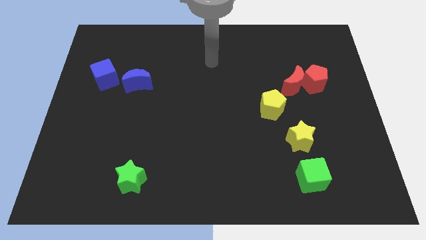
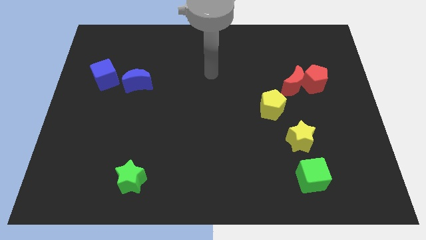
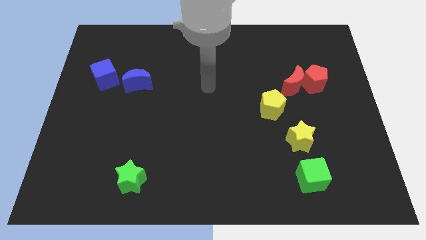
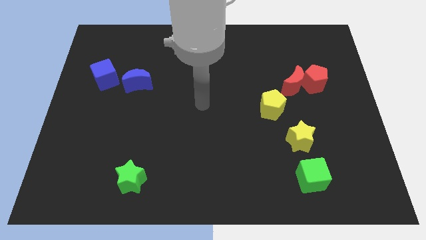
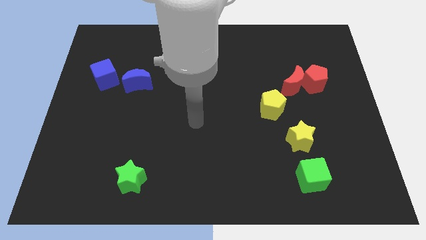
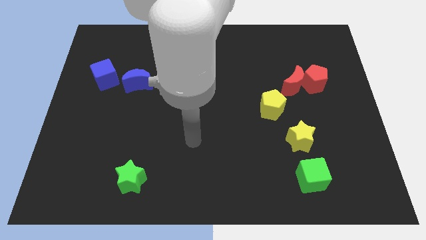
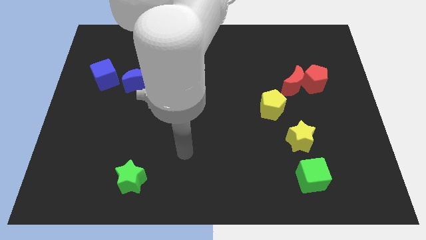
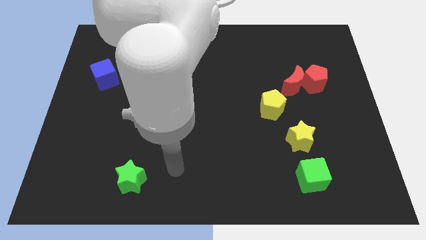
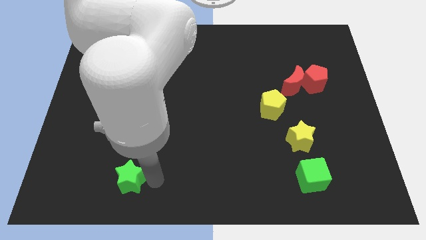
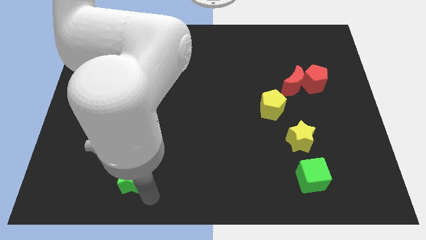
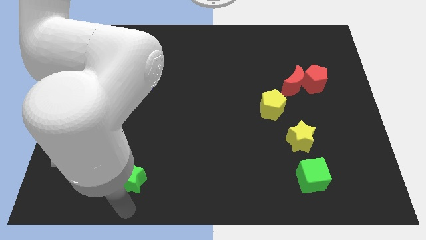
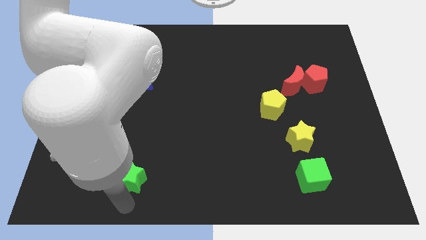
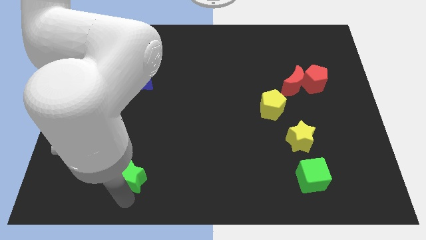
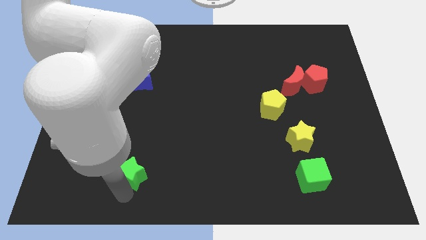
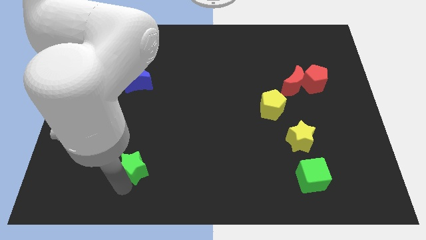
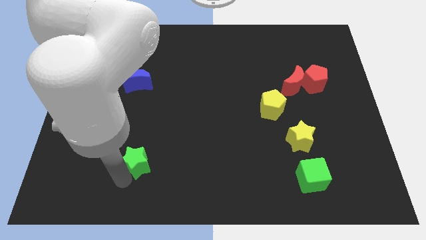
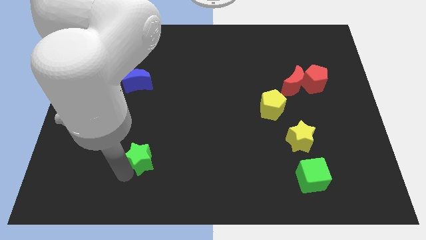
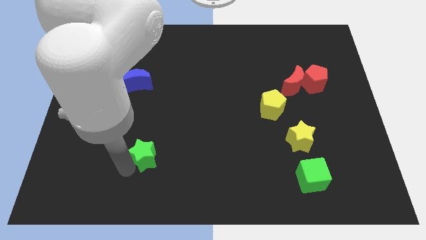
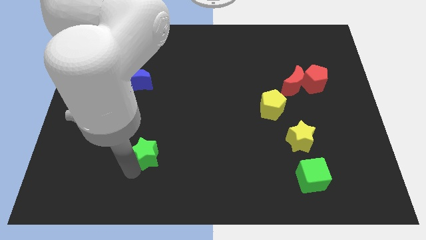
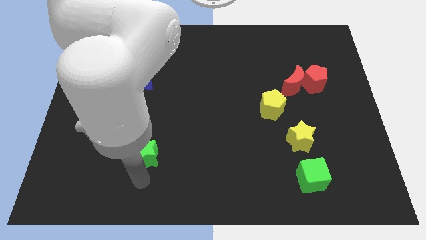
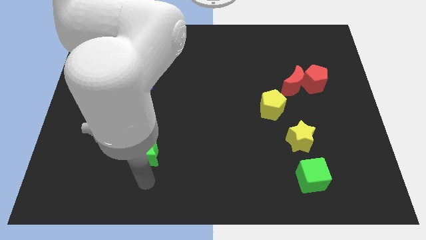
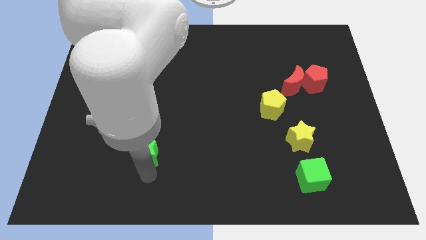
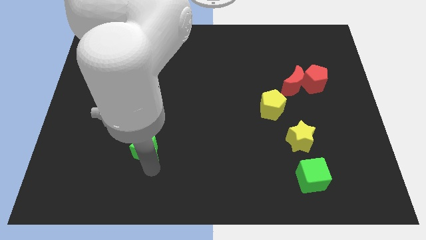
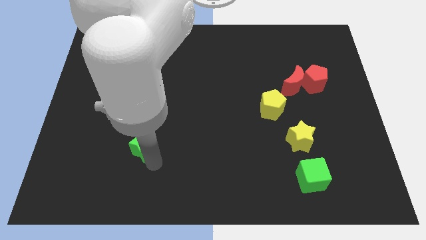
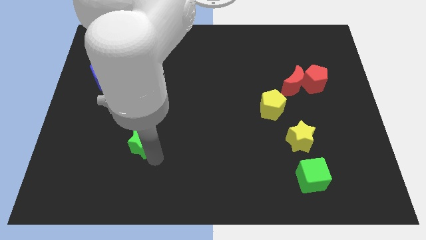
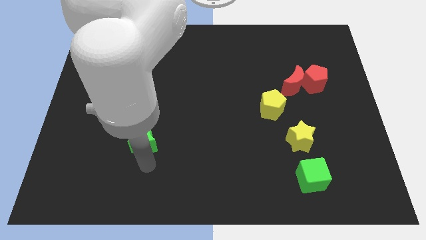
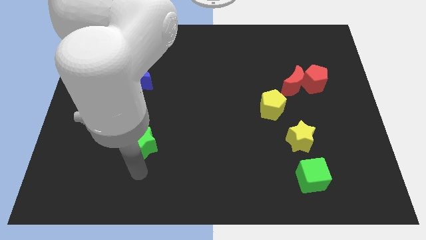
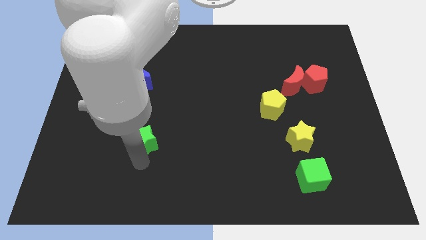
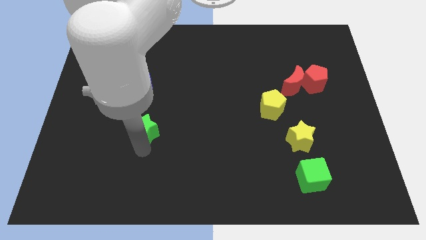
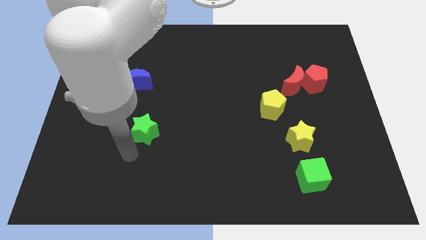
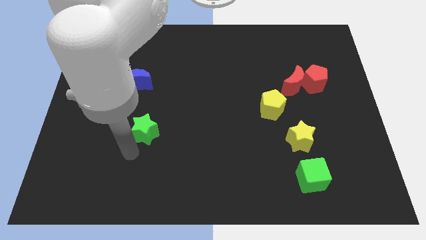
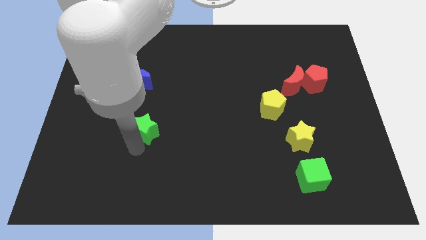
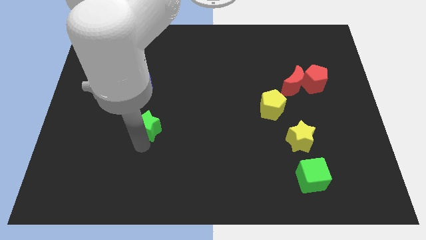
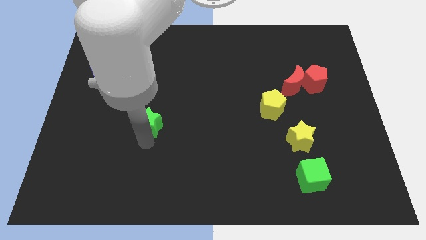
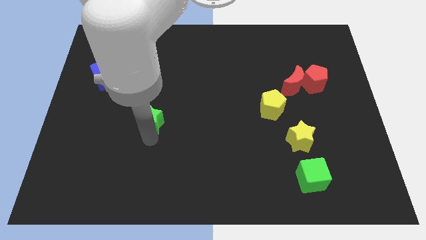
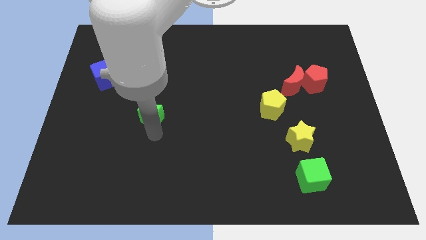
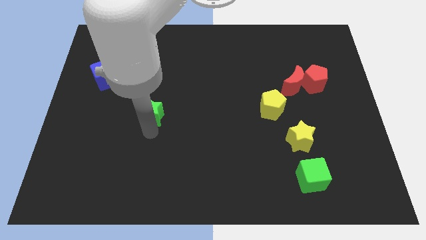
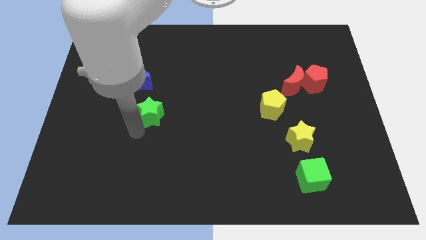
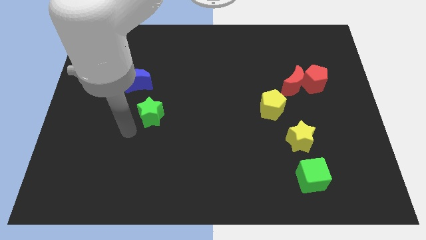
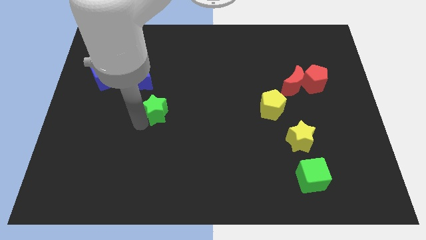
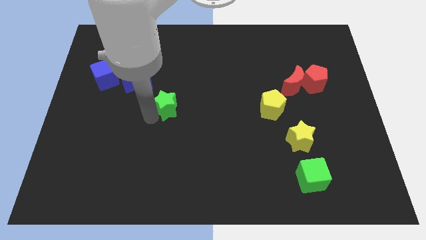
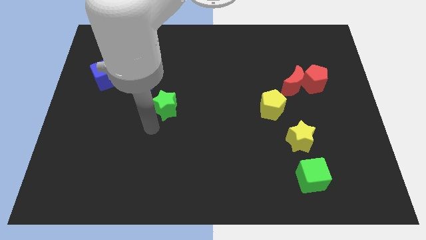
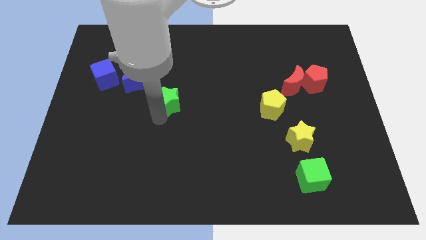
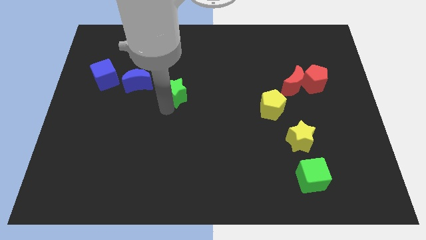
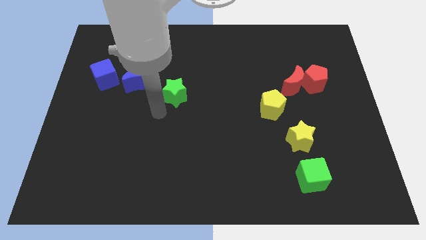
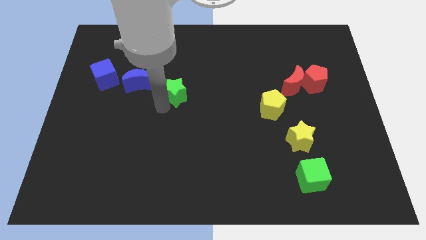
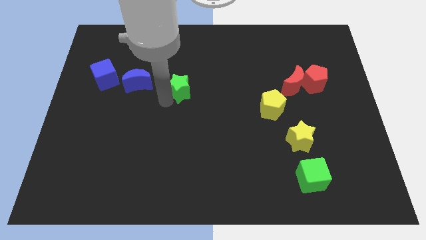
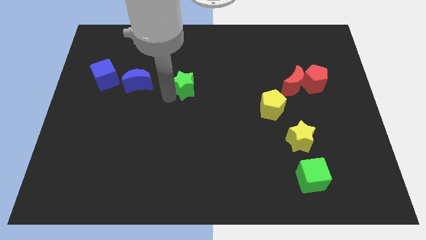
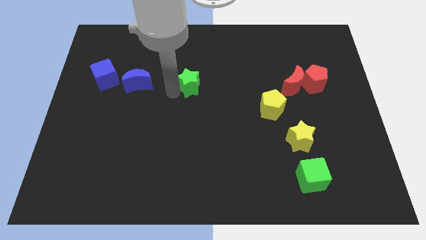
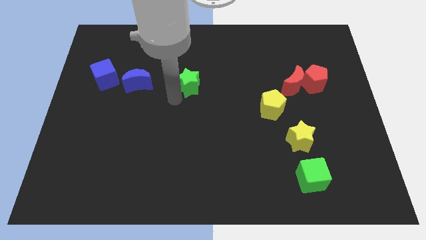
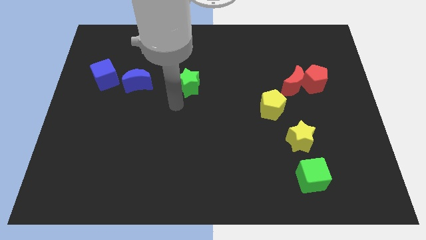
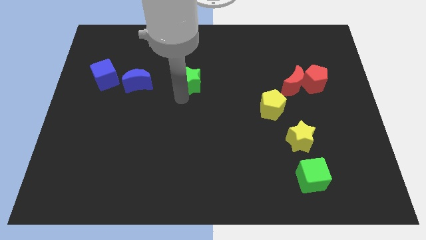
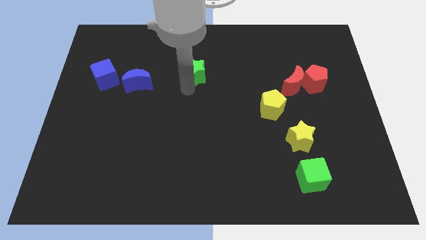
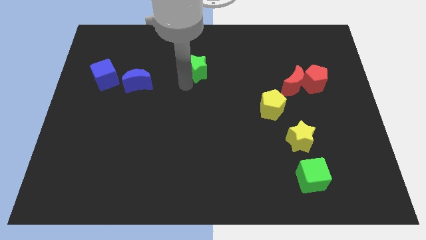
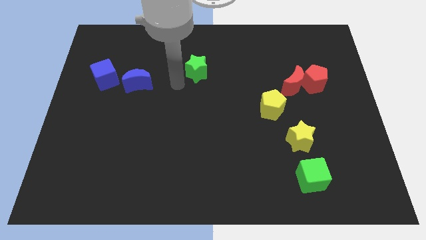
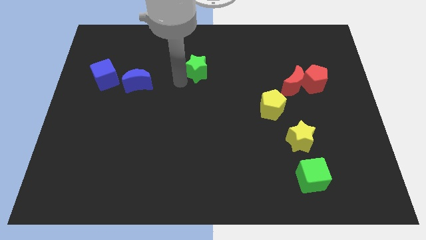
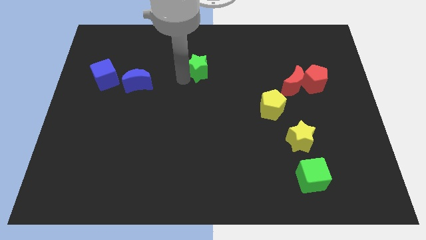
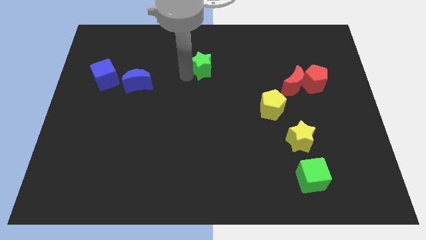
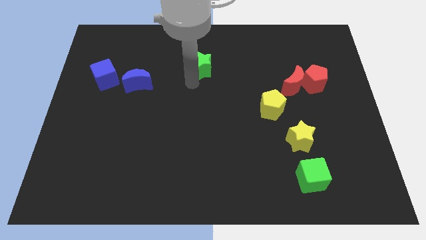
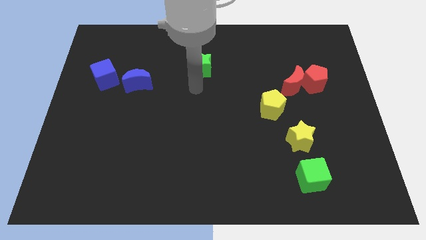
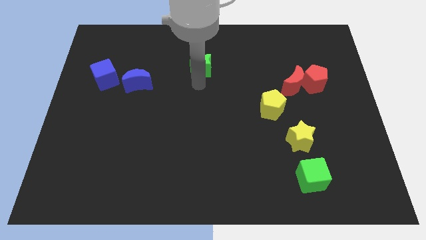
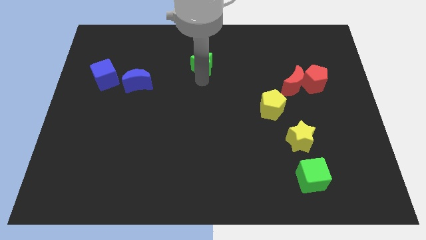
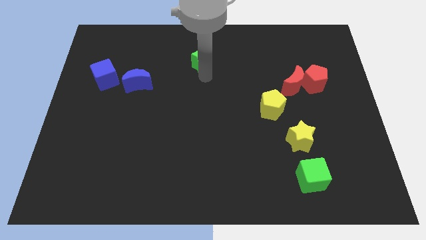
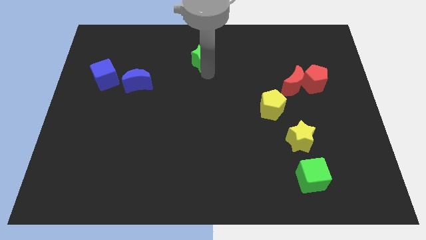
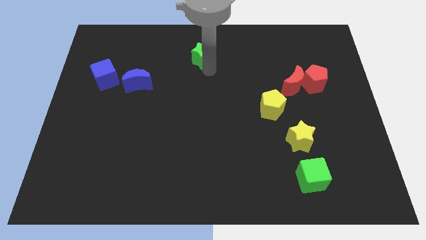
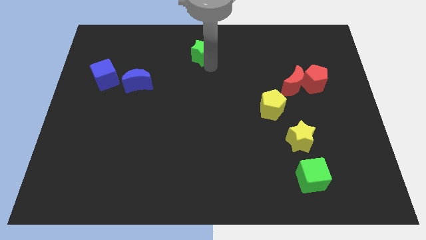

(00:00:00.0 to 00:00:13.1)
move the green star to the top

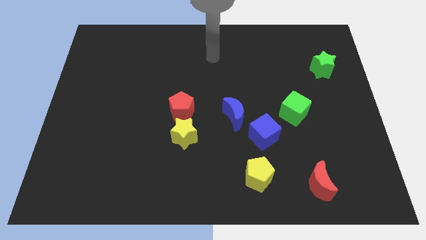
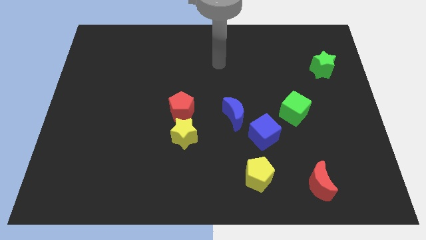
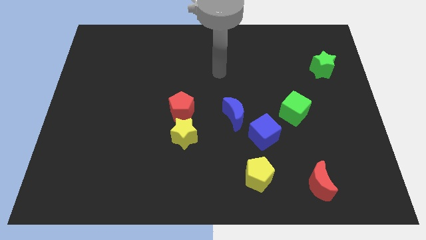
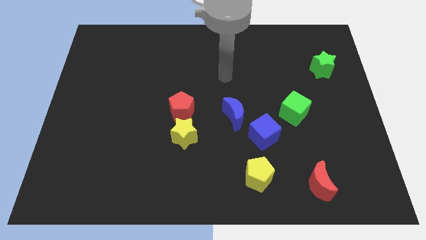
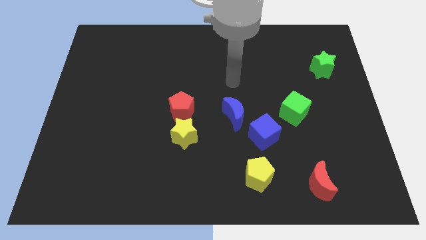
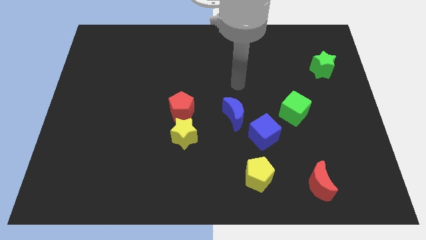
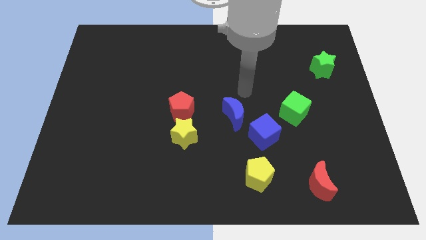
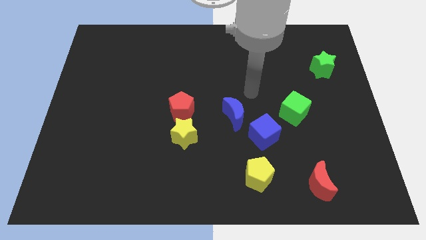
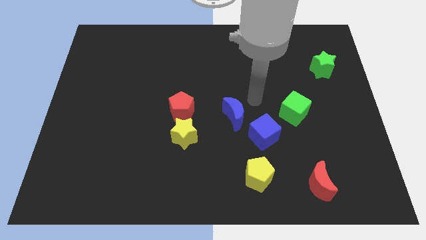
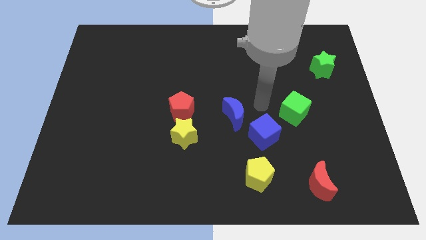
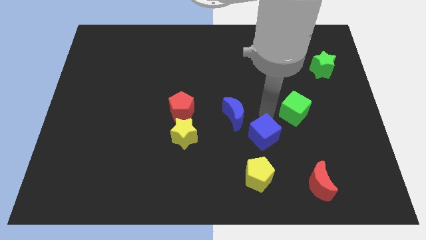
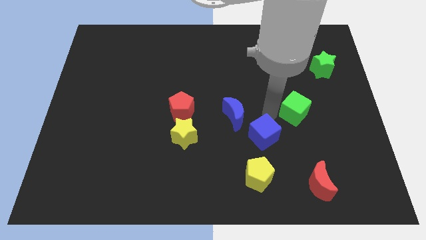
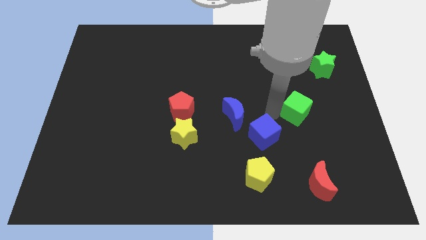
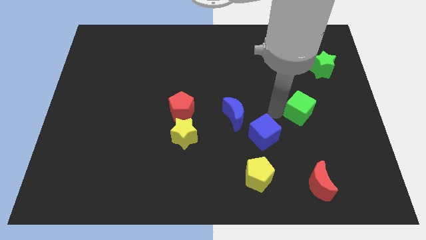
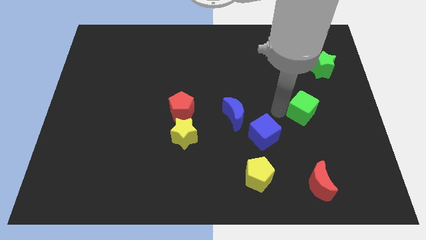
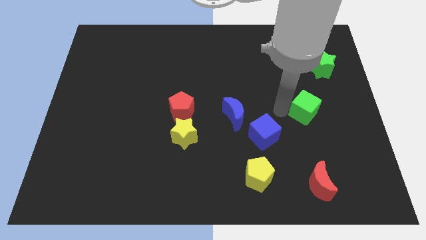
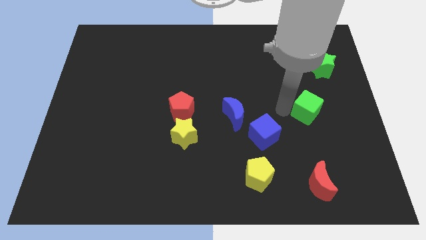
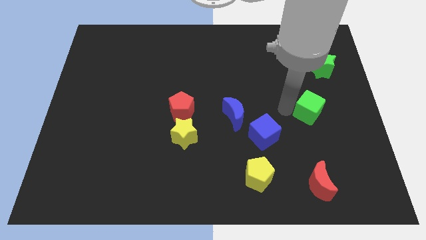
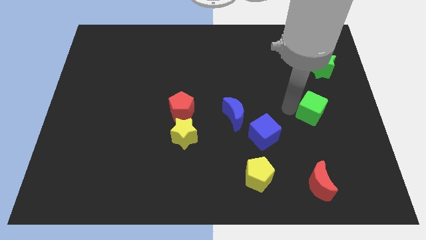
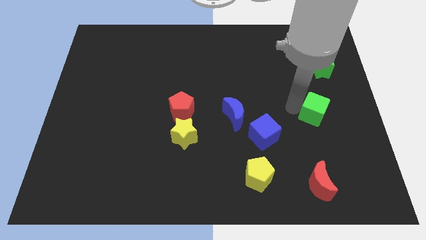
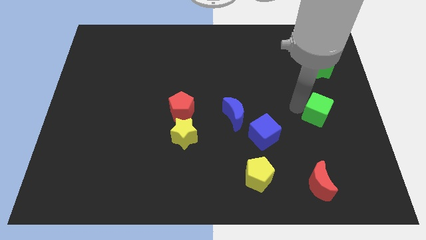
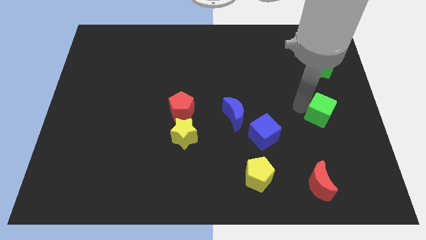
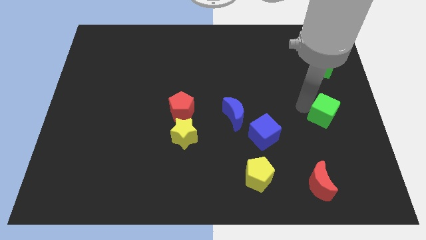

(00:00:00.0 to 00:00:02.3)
push the green cube to the right side of the board
